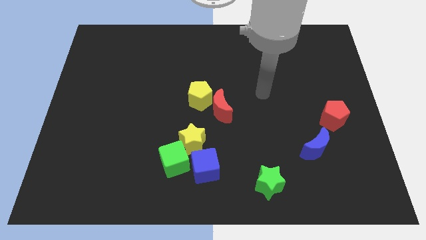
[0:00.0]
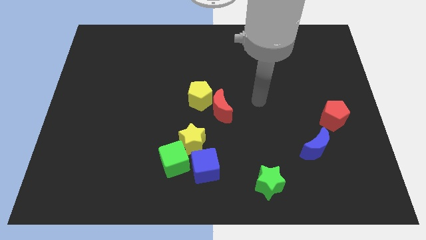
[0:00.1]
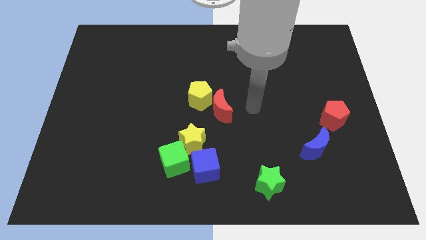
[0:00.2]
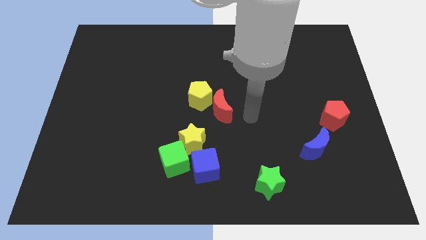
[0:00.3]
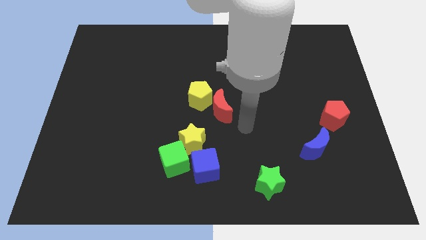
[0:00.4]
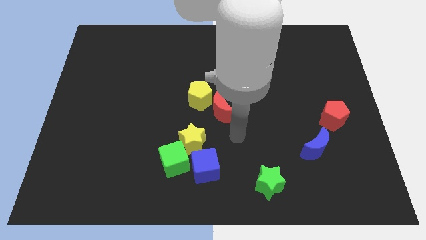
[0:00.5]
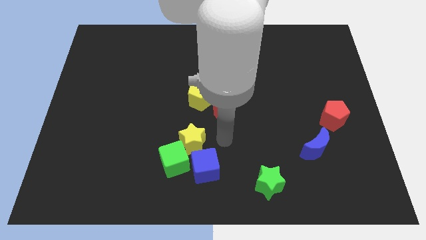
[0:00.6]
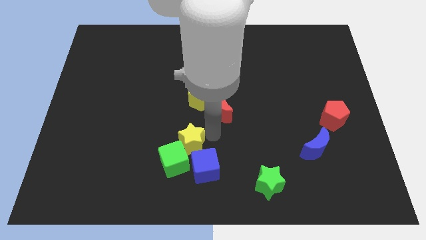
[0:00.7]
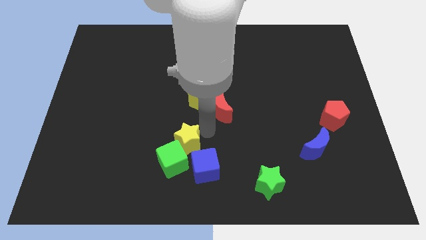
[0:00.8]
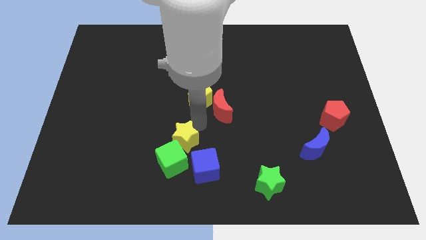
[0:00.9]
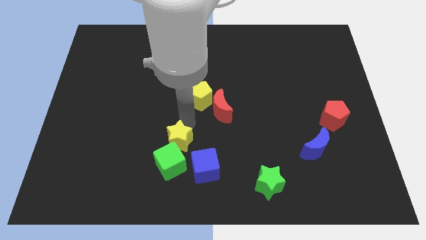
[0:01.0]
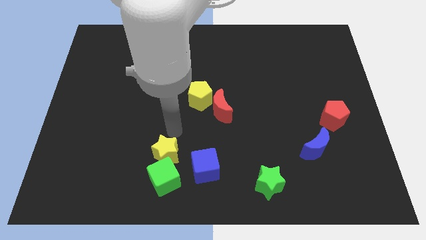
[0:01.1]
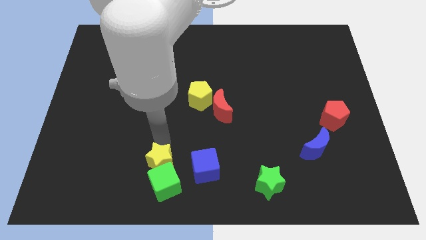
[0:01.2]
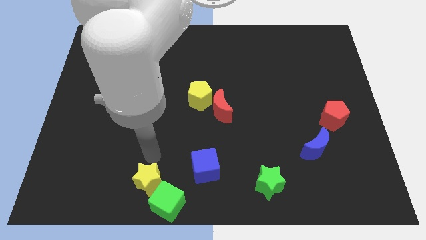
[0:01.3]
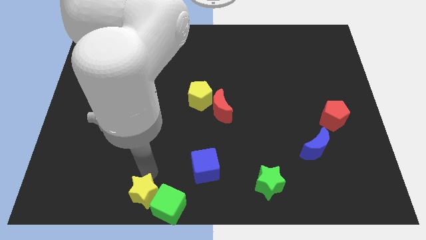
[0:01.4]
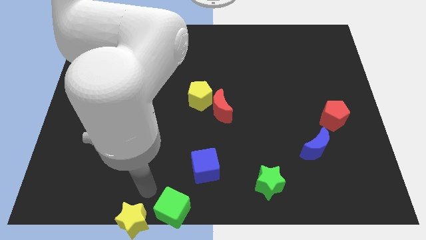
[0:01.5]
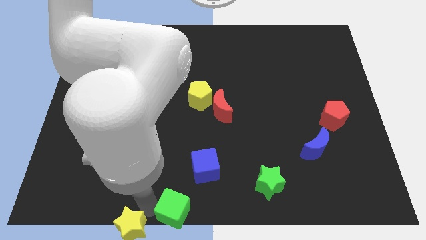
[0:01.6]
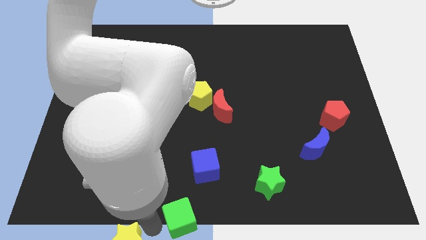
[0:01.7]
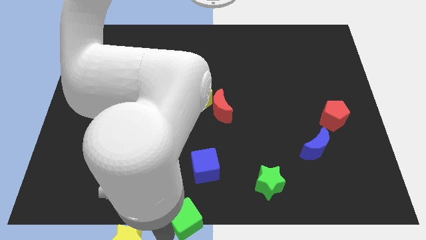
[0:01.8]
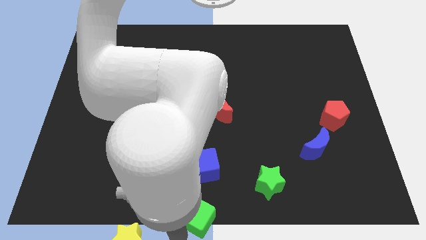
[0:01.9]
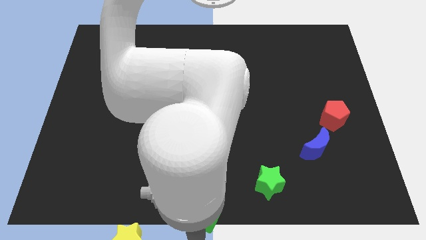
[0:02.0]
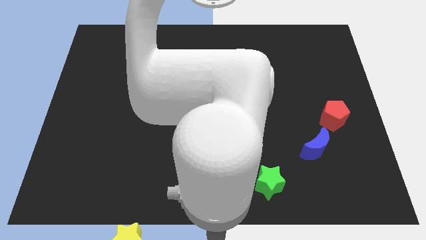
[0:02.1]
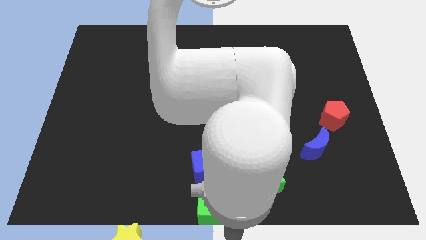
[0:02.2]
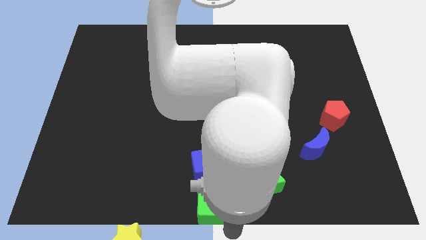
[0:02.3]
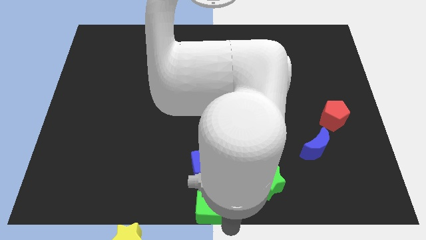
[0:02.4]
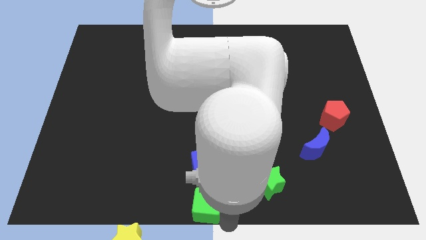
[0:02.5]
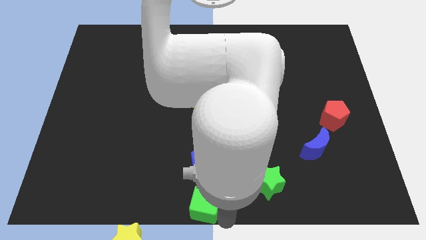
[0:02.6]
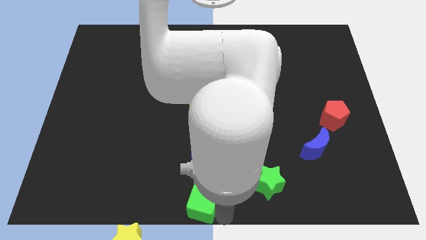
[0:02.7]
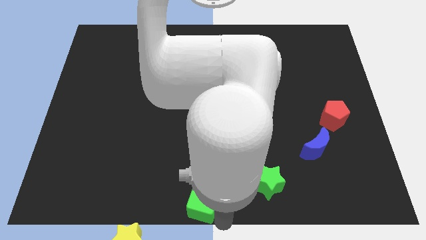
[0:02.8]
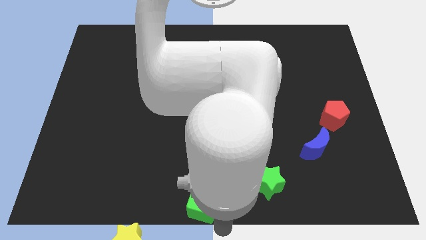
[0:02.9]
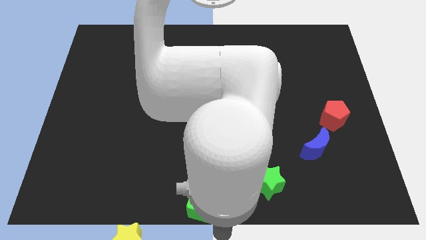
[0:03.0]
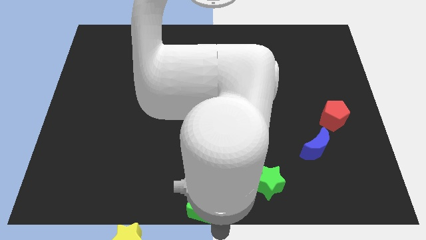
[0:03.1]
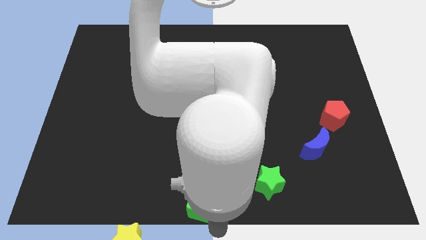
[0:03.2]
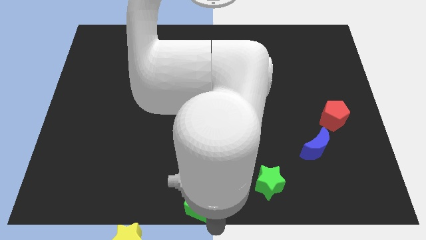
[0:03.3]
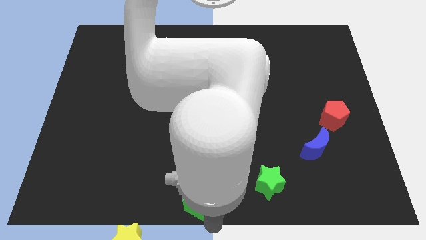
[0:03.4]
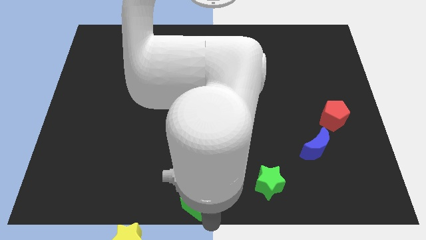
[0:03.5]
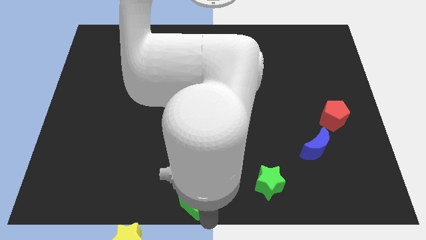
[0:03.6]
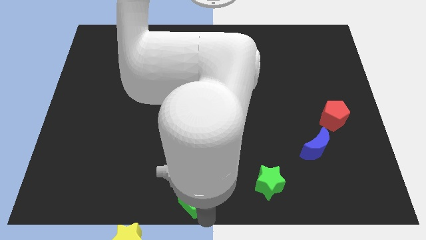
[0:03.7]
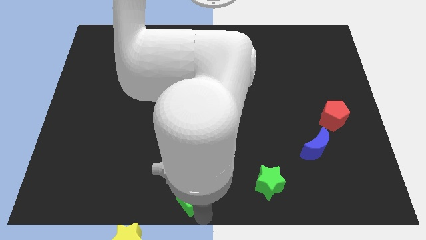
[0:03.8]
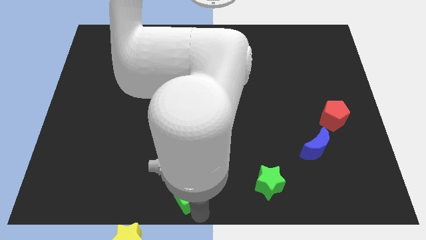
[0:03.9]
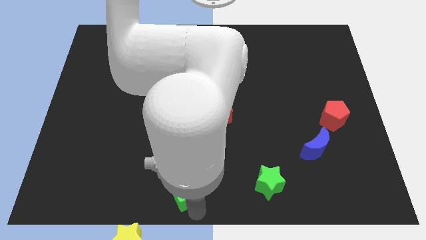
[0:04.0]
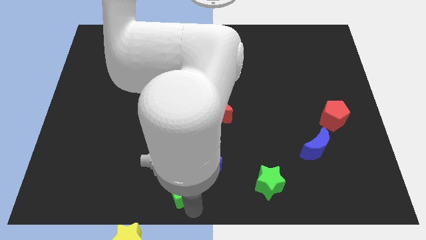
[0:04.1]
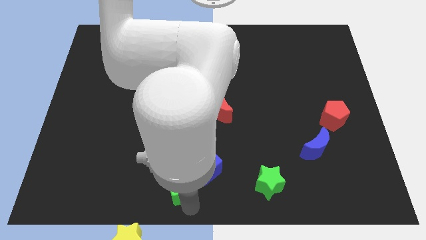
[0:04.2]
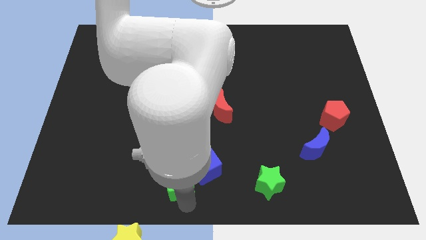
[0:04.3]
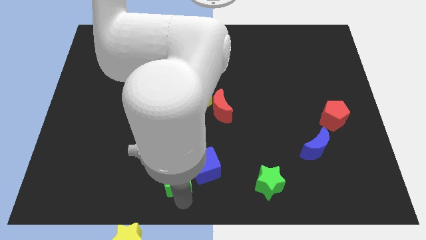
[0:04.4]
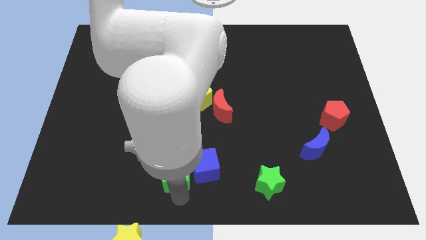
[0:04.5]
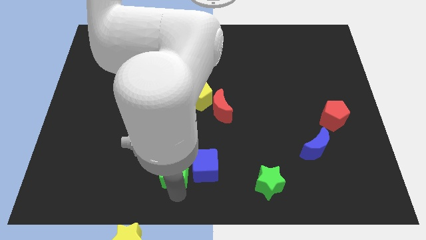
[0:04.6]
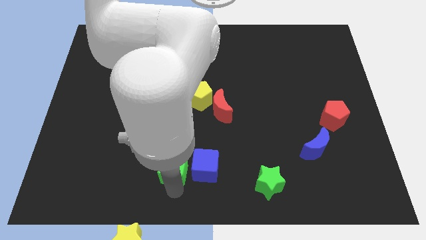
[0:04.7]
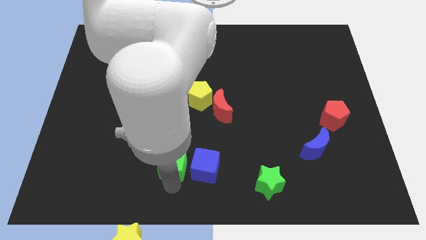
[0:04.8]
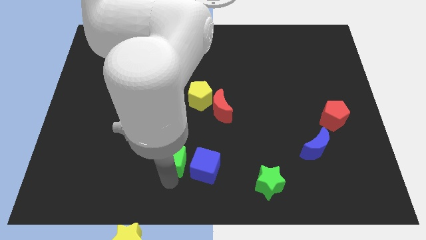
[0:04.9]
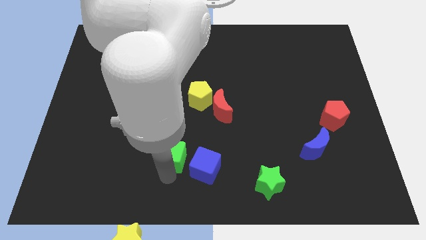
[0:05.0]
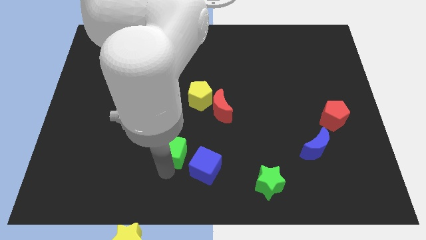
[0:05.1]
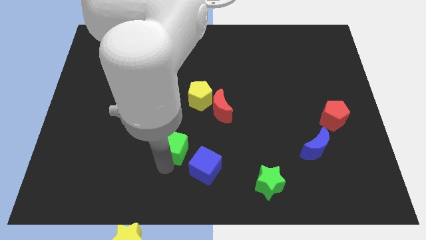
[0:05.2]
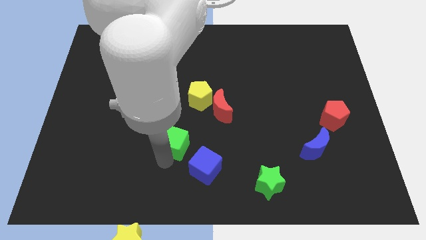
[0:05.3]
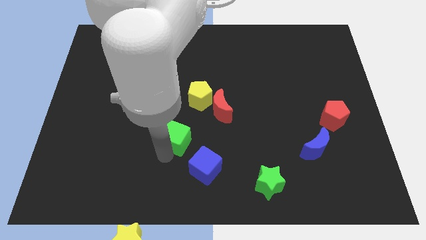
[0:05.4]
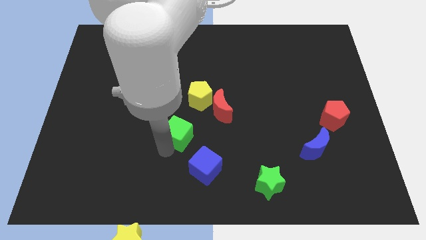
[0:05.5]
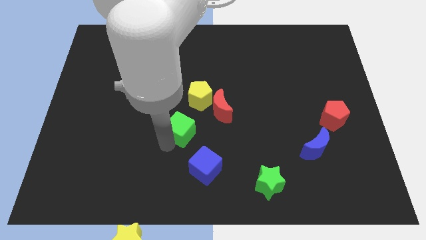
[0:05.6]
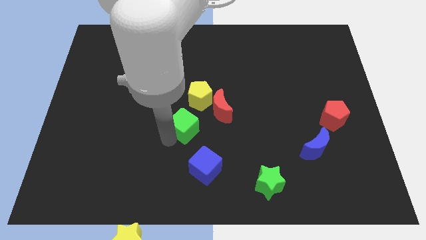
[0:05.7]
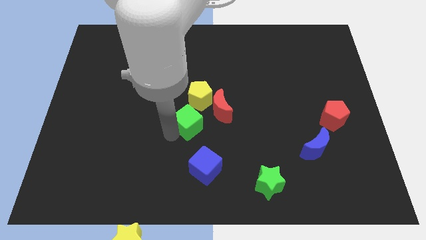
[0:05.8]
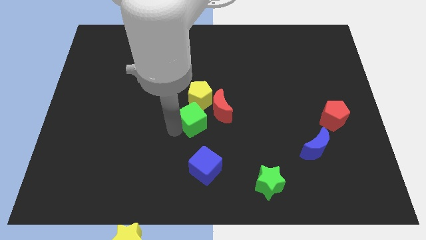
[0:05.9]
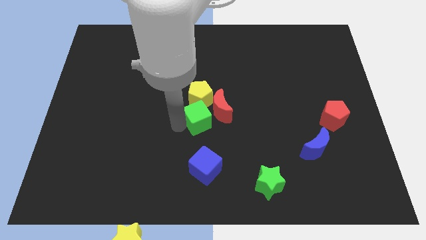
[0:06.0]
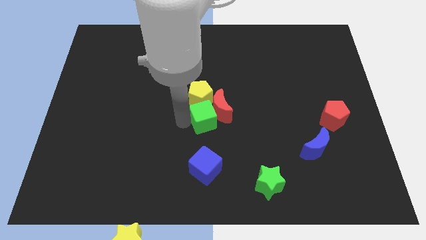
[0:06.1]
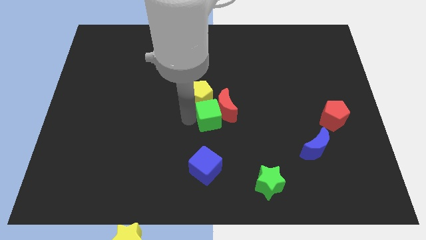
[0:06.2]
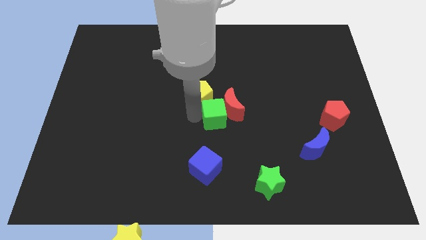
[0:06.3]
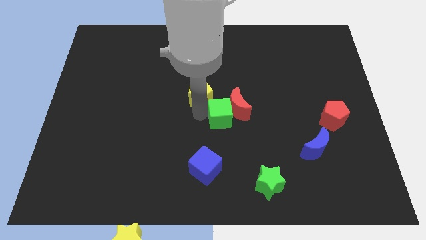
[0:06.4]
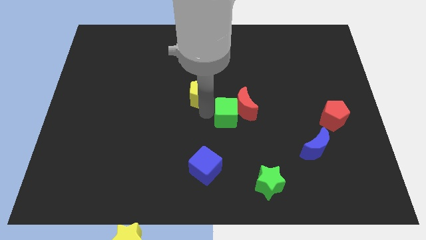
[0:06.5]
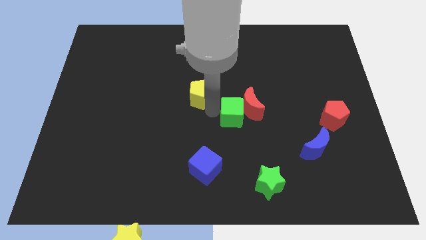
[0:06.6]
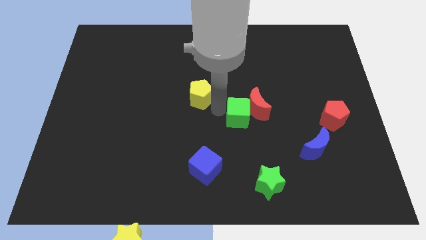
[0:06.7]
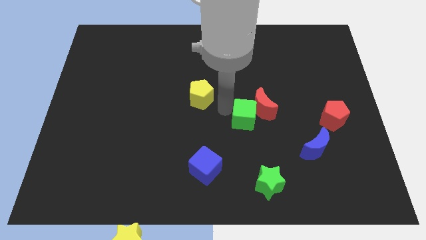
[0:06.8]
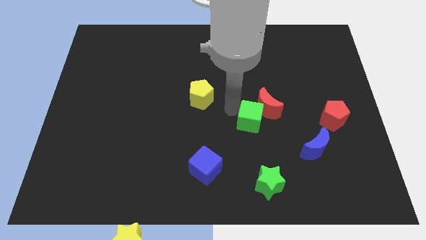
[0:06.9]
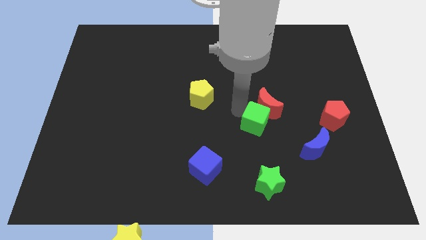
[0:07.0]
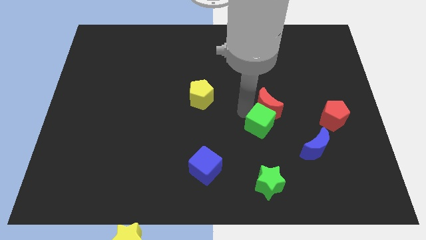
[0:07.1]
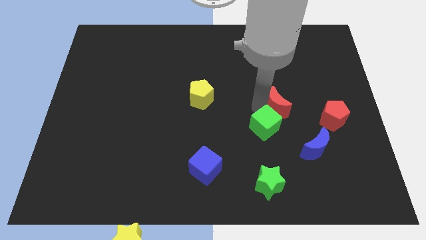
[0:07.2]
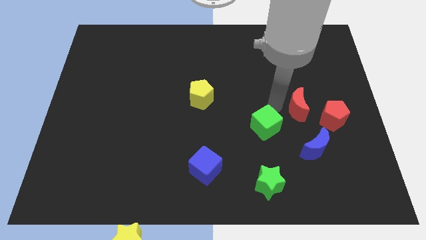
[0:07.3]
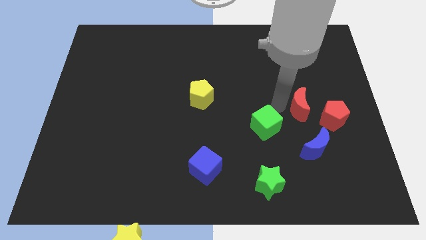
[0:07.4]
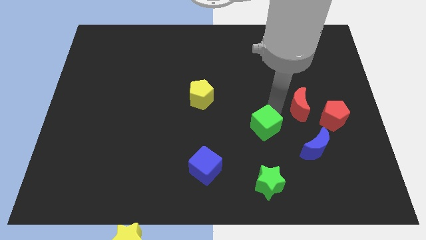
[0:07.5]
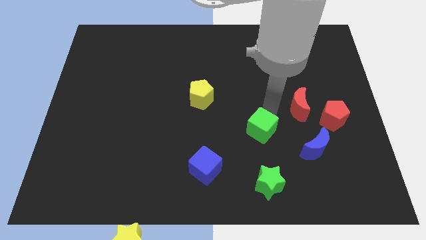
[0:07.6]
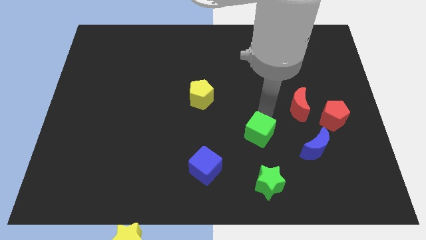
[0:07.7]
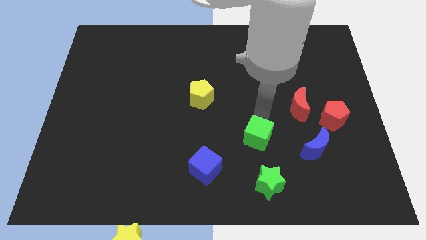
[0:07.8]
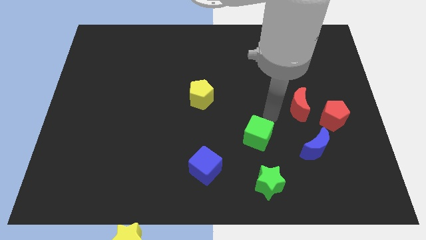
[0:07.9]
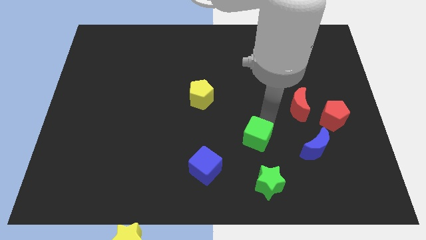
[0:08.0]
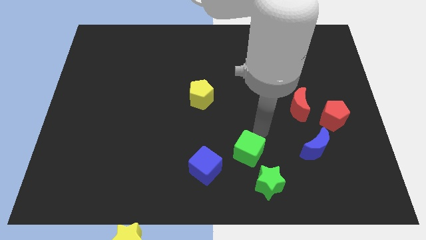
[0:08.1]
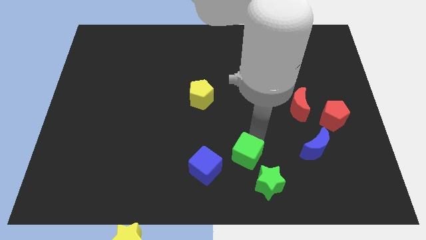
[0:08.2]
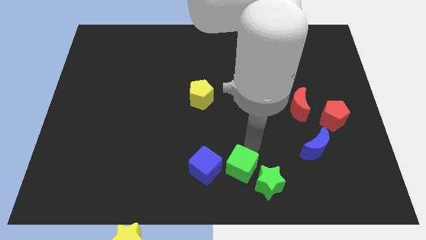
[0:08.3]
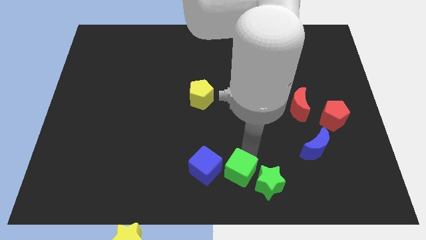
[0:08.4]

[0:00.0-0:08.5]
move the green cube next to the green star
